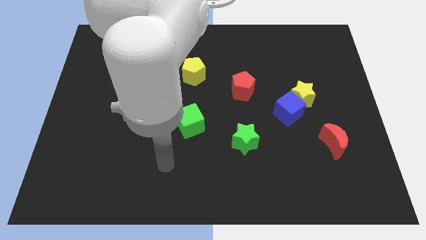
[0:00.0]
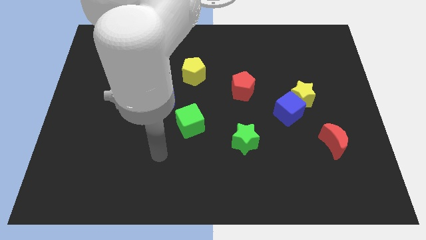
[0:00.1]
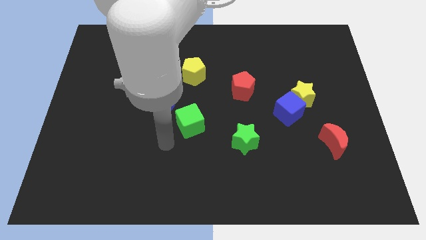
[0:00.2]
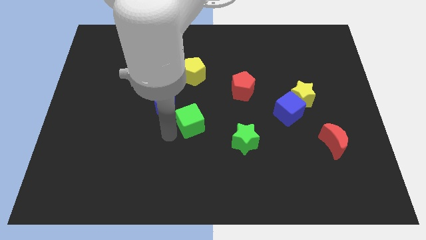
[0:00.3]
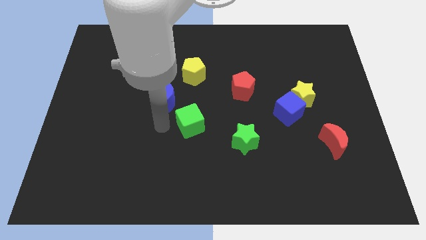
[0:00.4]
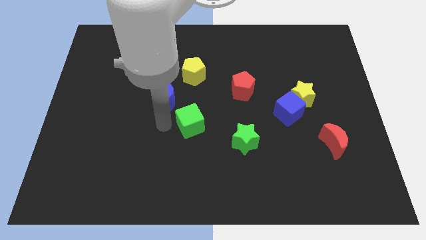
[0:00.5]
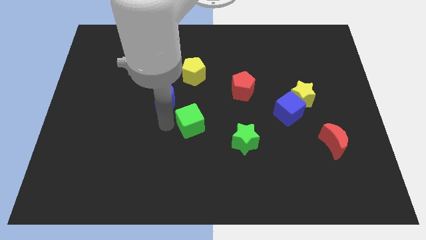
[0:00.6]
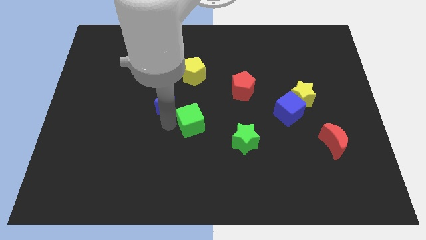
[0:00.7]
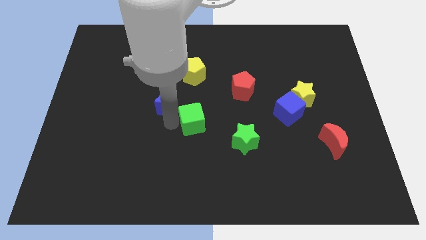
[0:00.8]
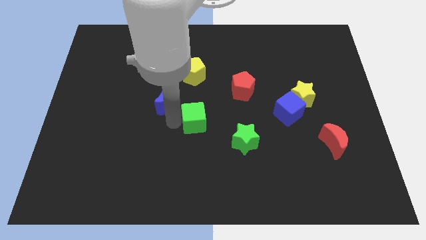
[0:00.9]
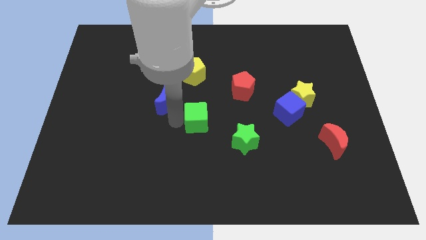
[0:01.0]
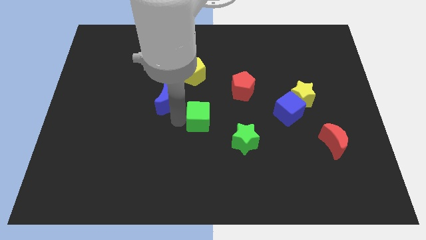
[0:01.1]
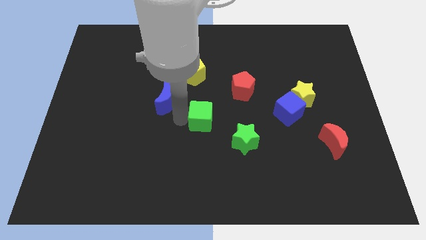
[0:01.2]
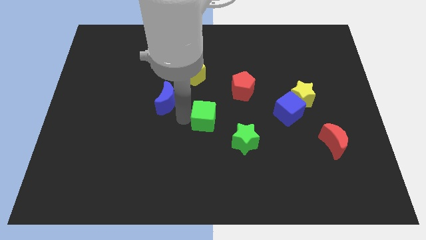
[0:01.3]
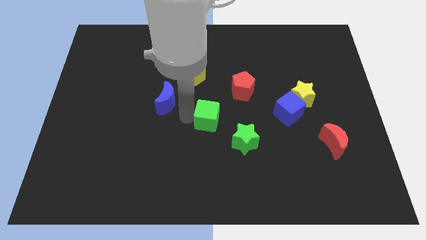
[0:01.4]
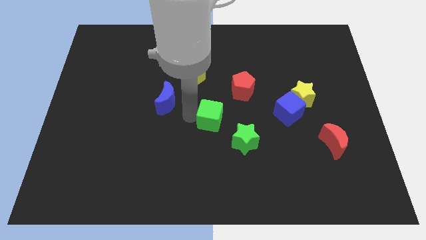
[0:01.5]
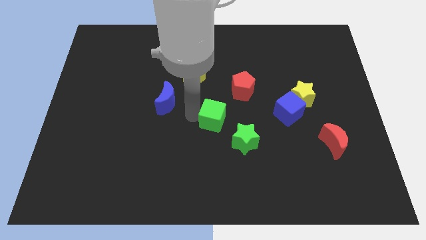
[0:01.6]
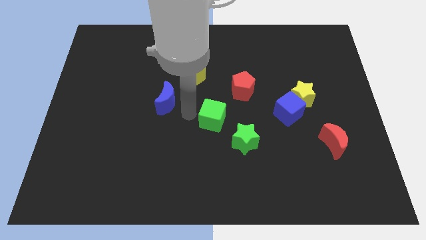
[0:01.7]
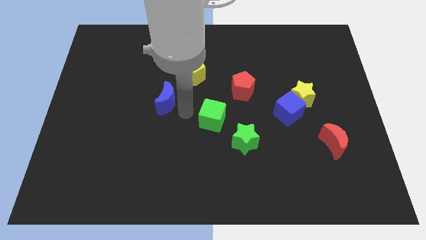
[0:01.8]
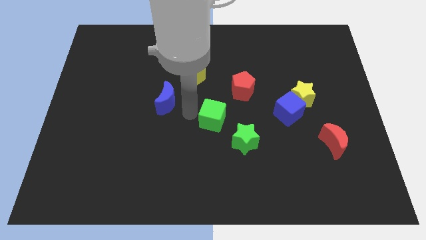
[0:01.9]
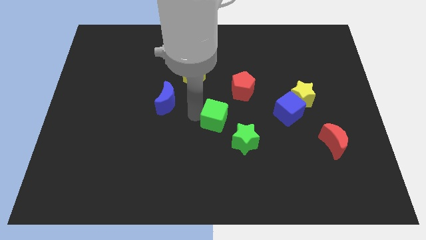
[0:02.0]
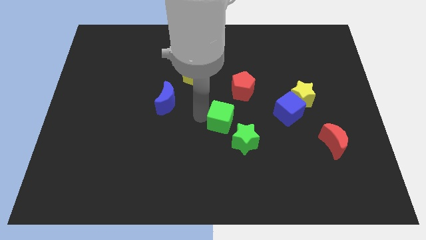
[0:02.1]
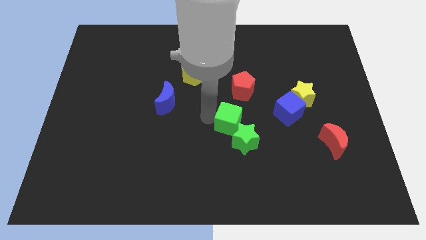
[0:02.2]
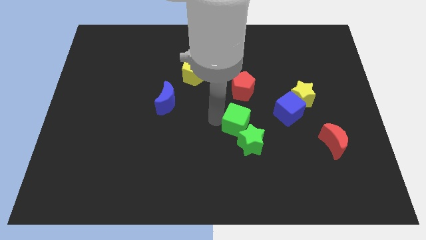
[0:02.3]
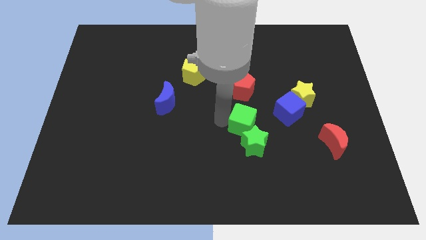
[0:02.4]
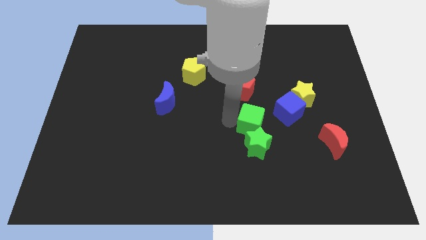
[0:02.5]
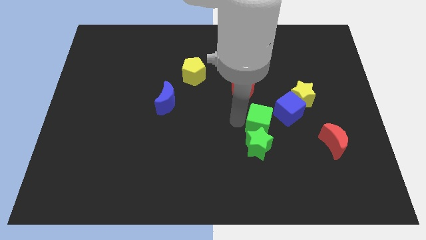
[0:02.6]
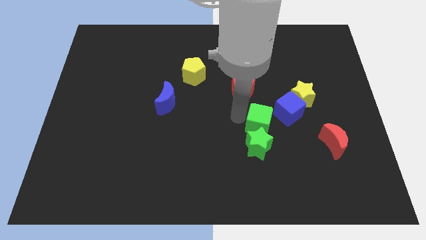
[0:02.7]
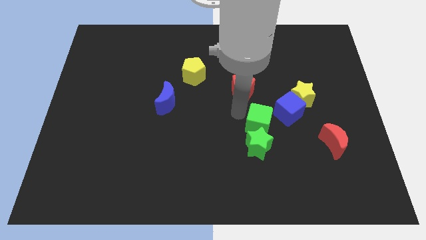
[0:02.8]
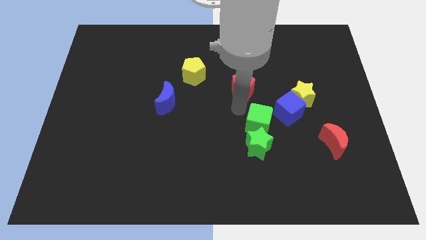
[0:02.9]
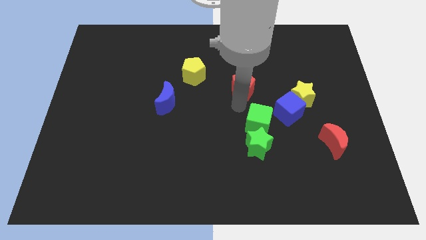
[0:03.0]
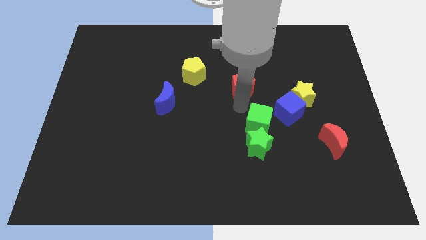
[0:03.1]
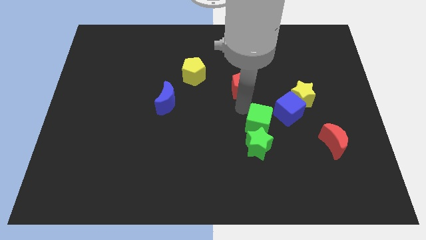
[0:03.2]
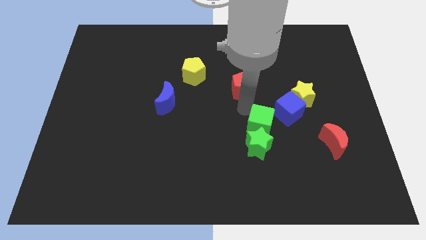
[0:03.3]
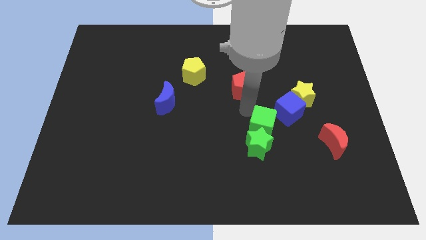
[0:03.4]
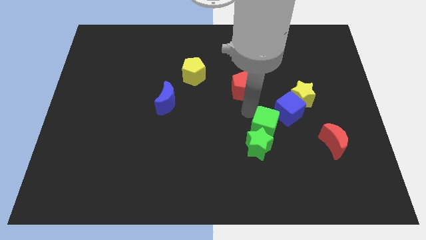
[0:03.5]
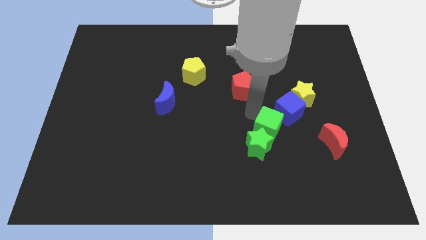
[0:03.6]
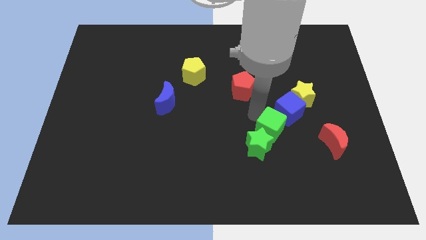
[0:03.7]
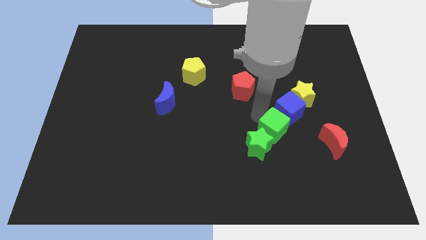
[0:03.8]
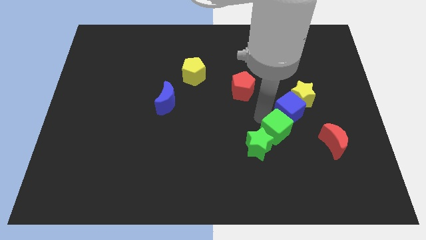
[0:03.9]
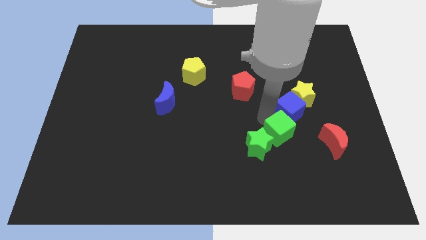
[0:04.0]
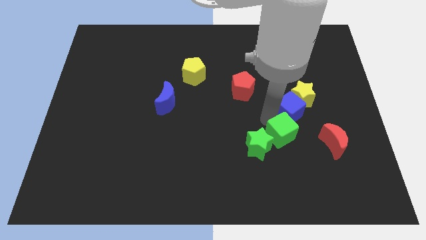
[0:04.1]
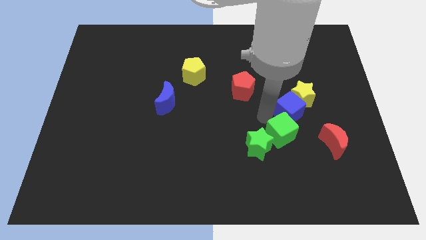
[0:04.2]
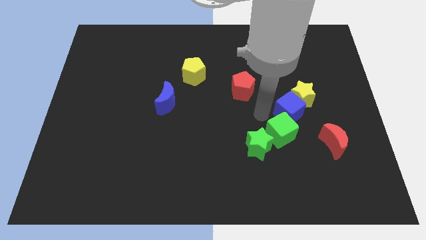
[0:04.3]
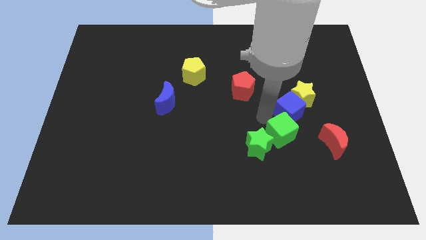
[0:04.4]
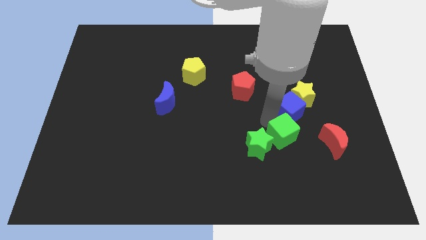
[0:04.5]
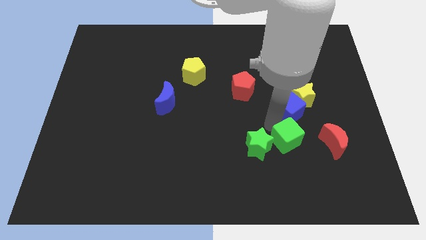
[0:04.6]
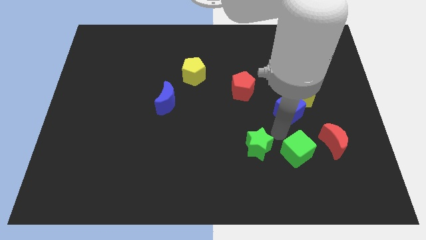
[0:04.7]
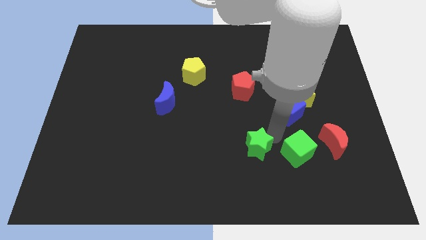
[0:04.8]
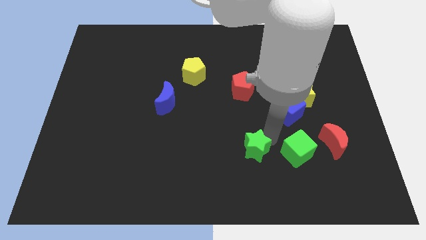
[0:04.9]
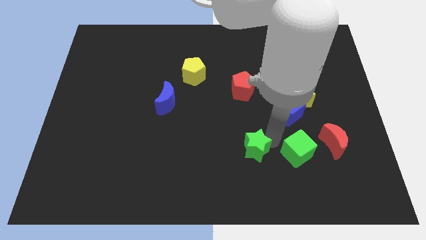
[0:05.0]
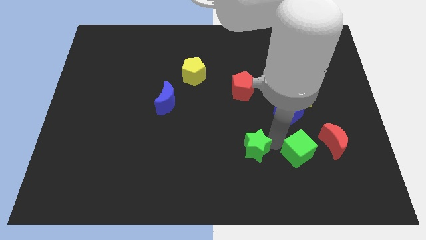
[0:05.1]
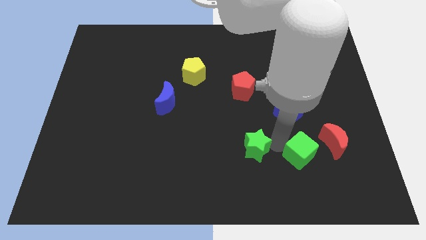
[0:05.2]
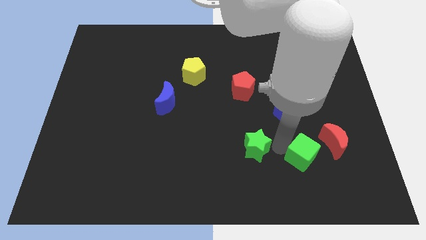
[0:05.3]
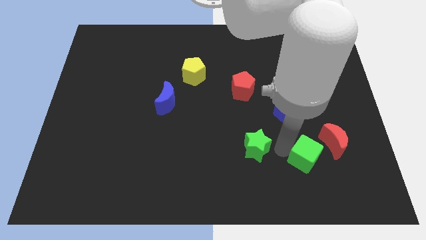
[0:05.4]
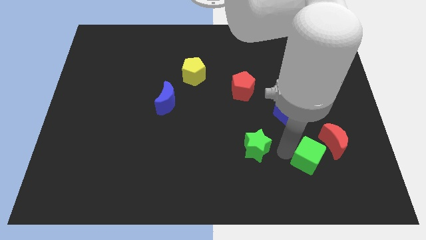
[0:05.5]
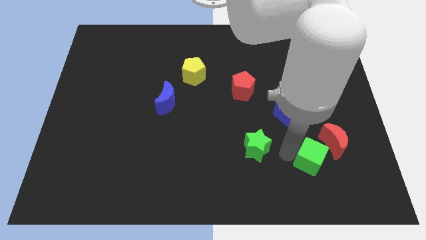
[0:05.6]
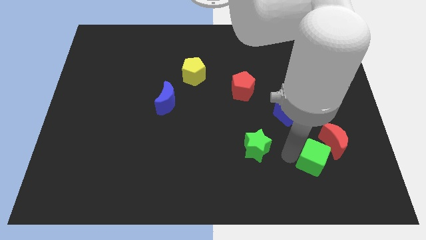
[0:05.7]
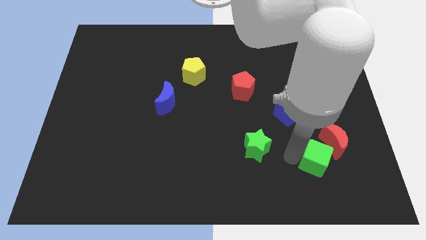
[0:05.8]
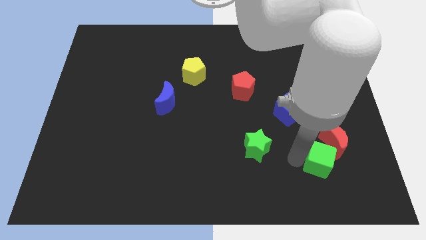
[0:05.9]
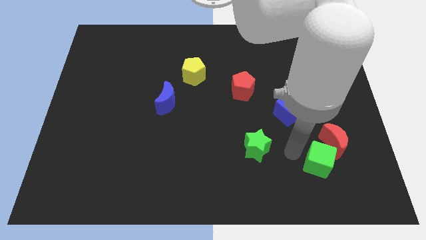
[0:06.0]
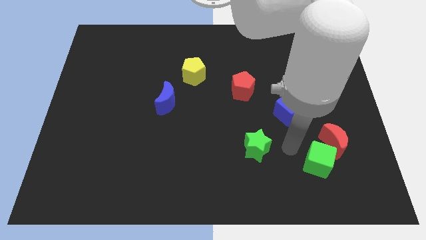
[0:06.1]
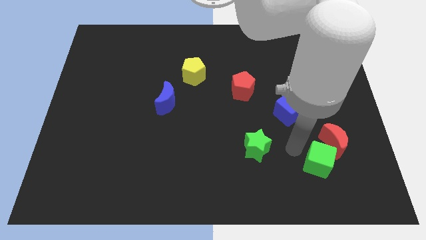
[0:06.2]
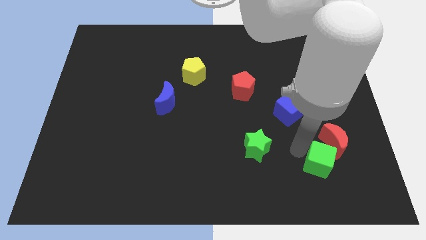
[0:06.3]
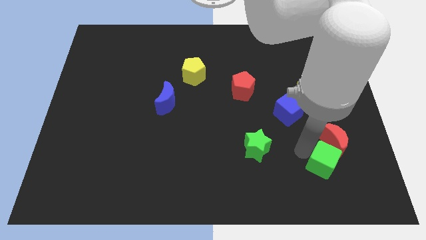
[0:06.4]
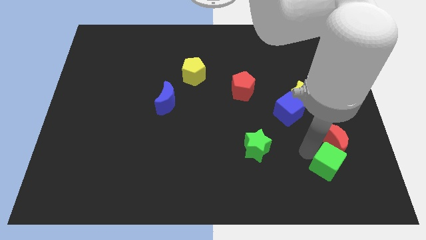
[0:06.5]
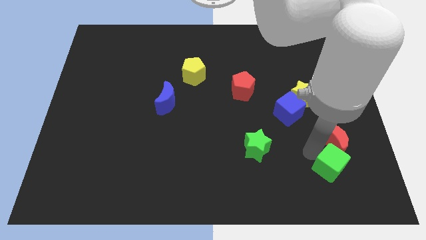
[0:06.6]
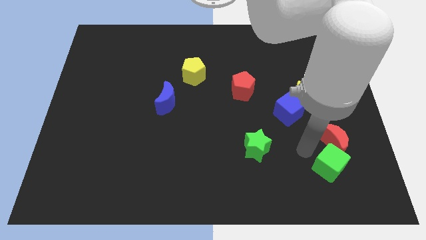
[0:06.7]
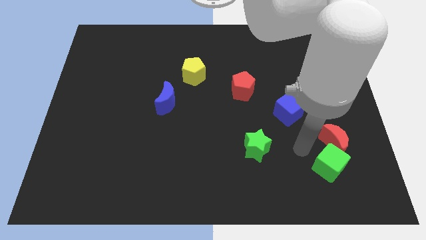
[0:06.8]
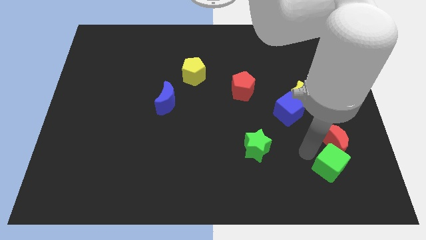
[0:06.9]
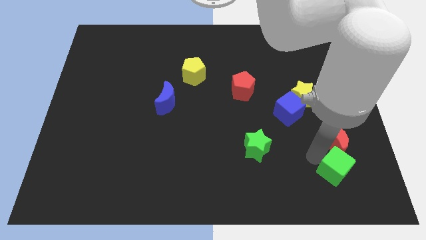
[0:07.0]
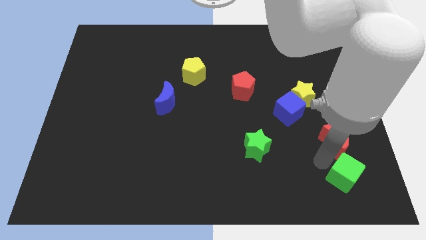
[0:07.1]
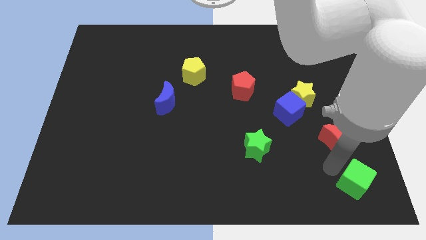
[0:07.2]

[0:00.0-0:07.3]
move the green cube to the bottom right corner
